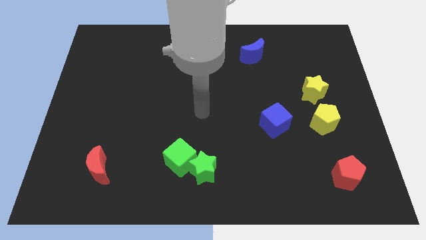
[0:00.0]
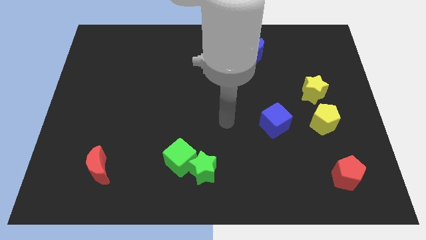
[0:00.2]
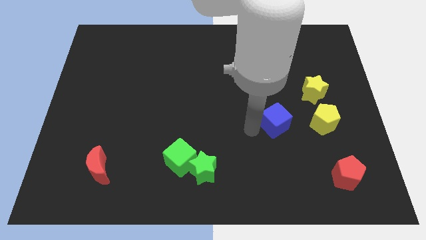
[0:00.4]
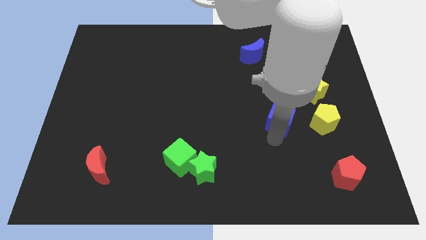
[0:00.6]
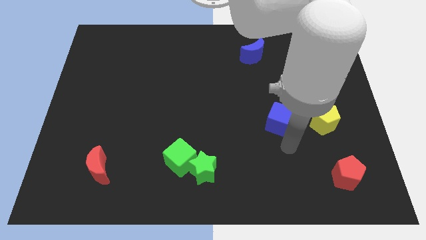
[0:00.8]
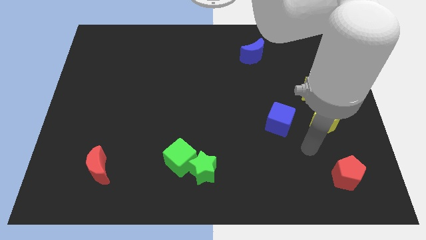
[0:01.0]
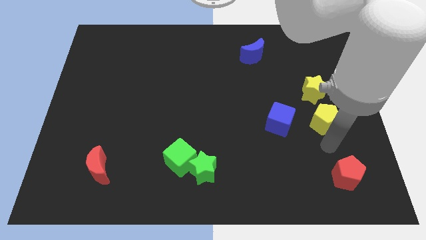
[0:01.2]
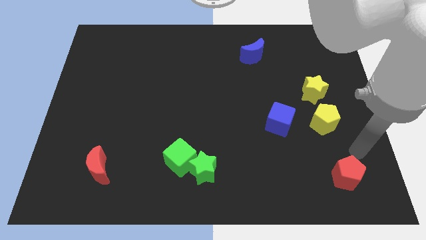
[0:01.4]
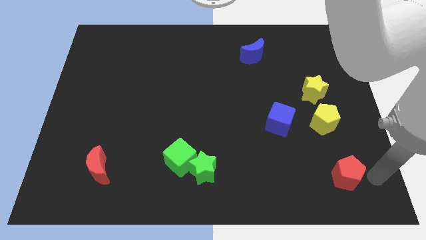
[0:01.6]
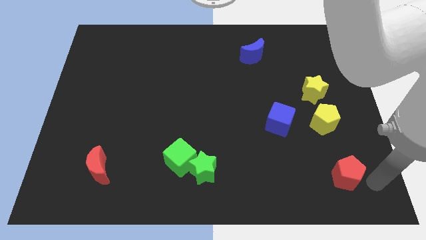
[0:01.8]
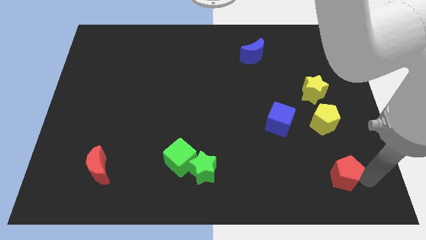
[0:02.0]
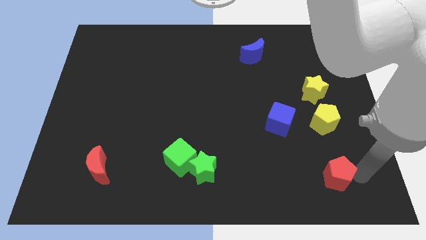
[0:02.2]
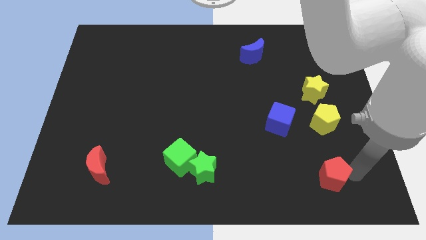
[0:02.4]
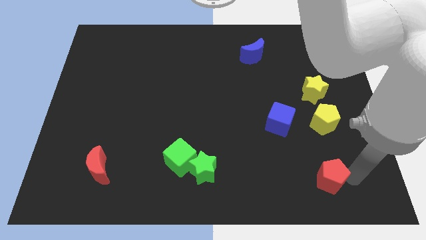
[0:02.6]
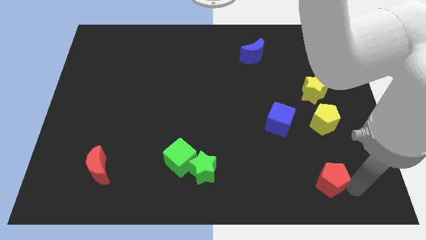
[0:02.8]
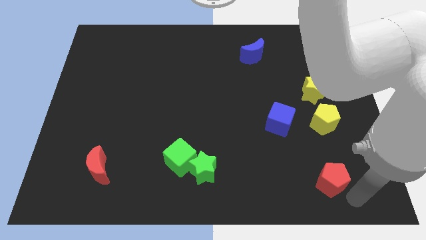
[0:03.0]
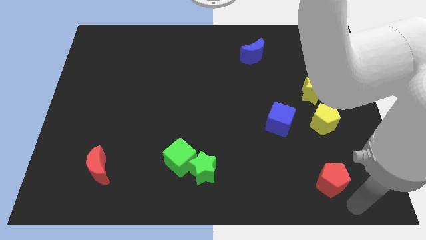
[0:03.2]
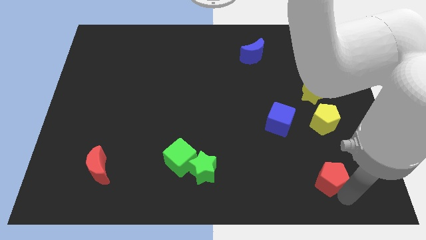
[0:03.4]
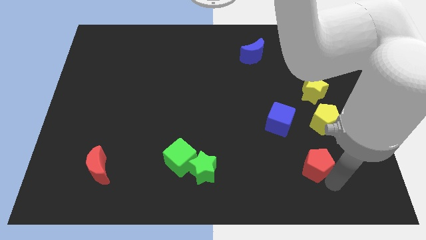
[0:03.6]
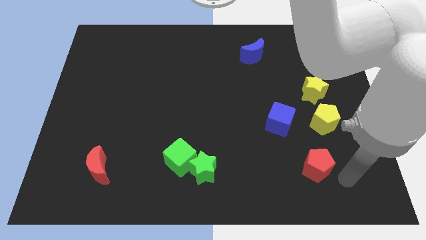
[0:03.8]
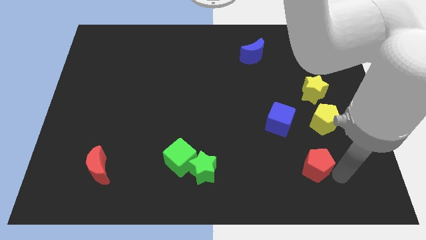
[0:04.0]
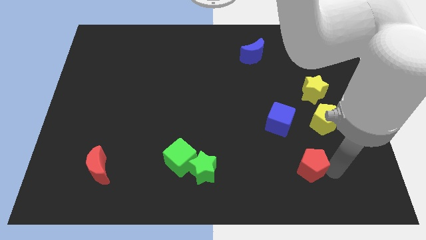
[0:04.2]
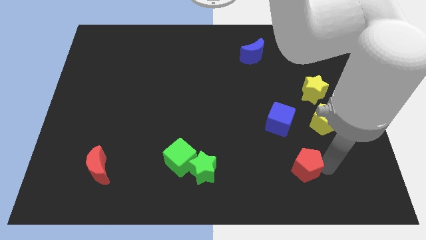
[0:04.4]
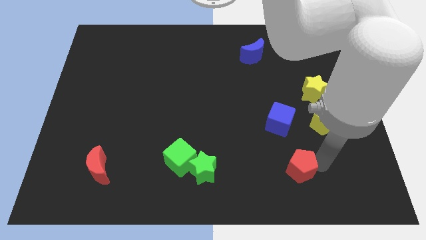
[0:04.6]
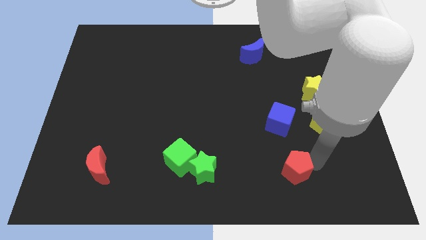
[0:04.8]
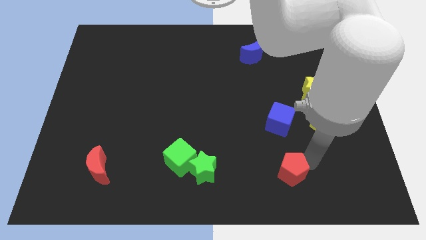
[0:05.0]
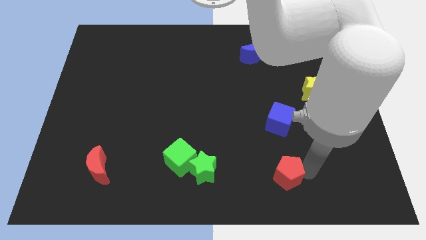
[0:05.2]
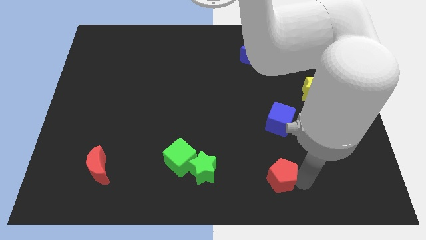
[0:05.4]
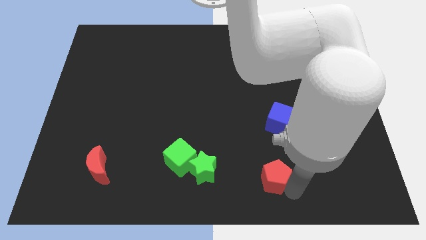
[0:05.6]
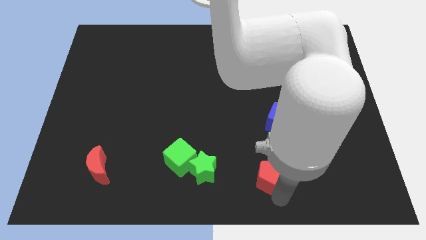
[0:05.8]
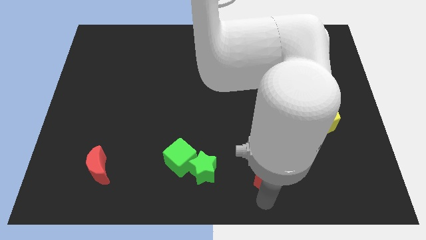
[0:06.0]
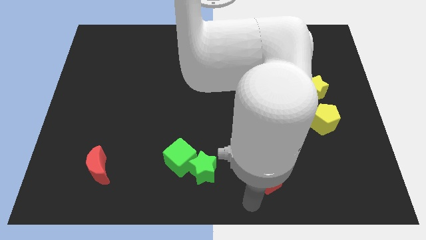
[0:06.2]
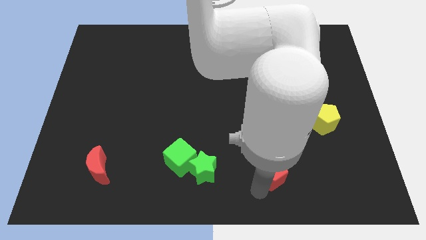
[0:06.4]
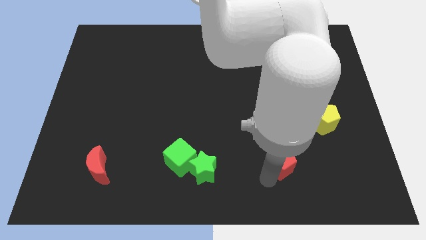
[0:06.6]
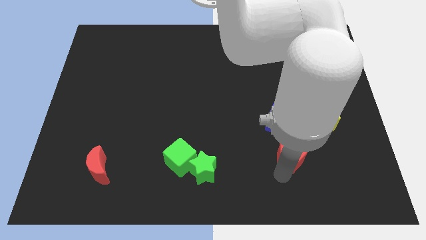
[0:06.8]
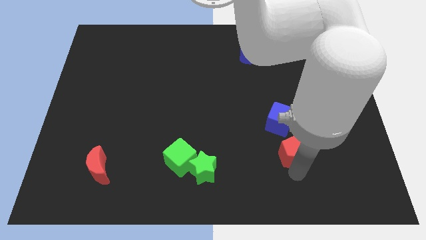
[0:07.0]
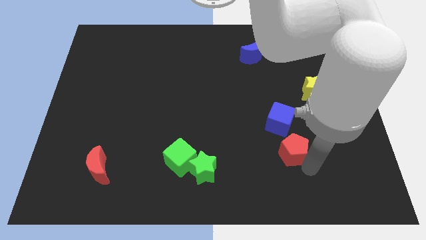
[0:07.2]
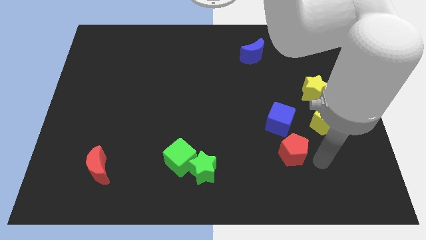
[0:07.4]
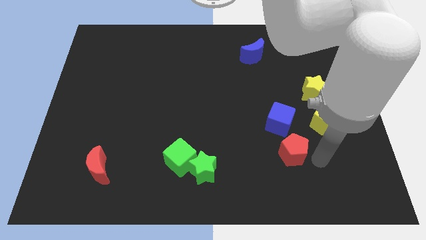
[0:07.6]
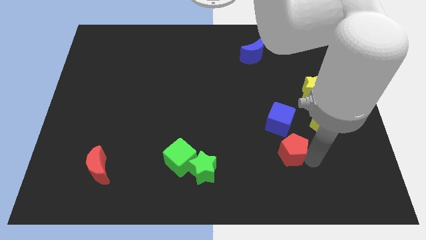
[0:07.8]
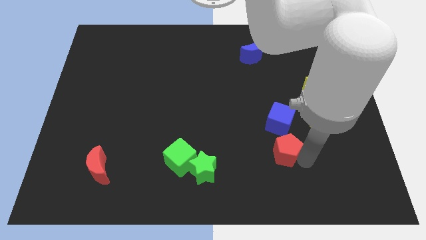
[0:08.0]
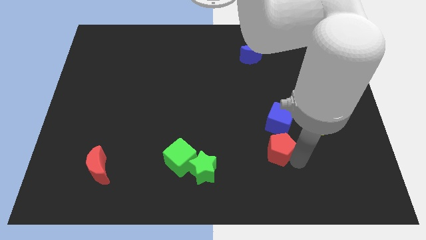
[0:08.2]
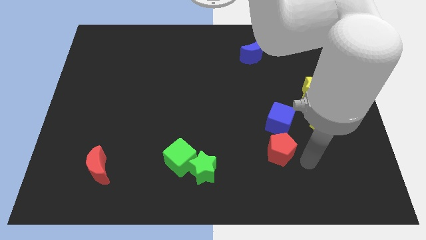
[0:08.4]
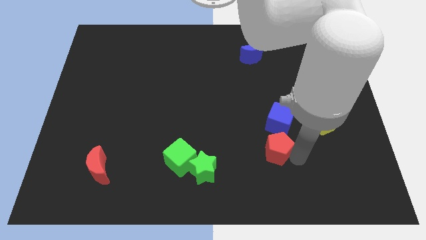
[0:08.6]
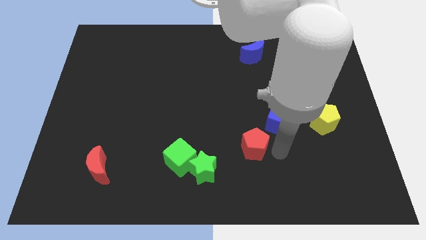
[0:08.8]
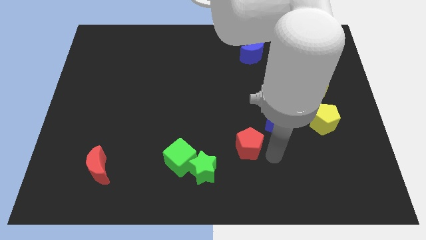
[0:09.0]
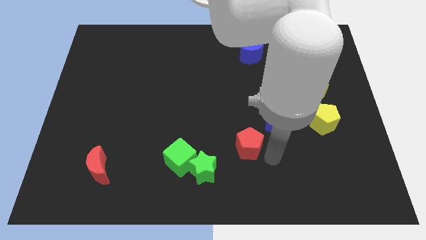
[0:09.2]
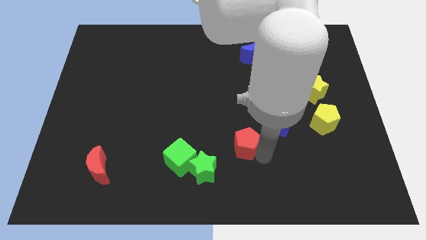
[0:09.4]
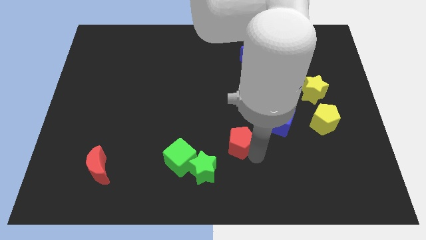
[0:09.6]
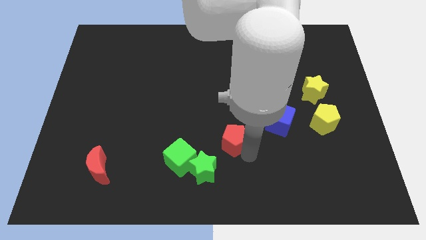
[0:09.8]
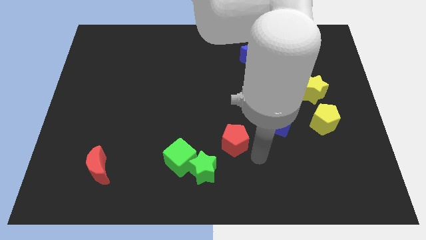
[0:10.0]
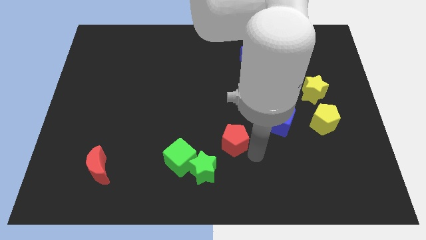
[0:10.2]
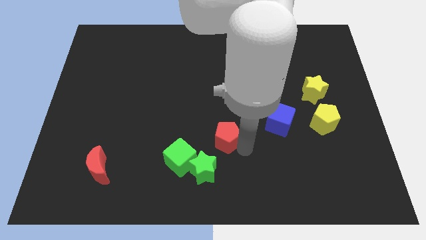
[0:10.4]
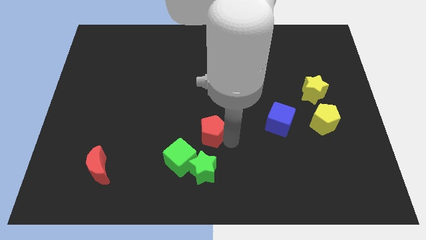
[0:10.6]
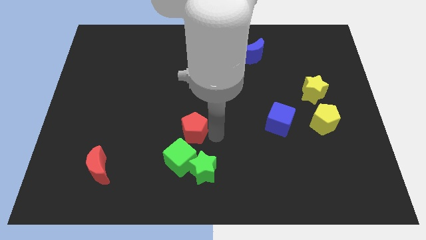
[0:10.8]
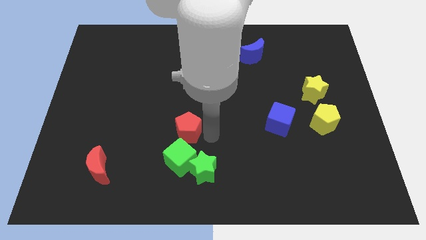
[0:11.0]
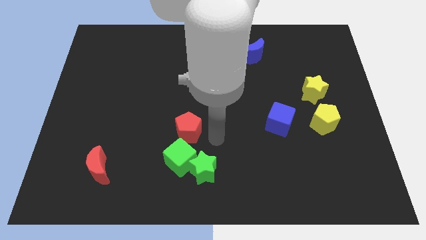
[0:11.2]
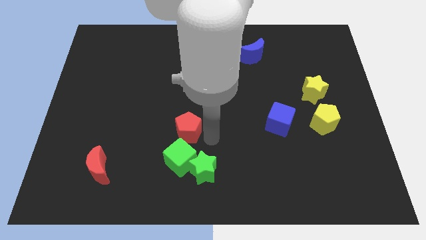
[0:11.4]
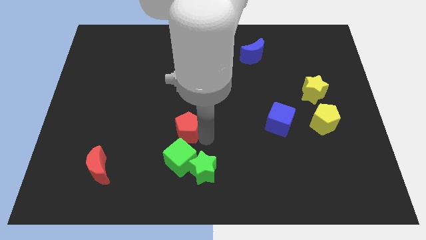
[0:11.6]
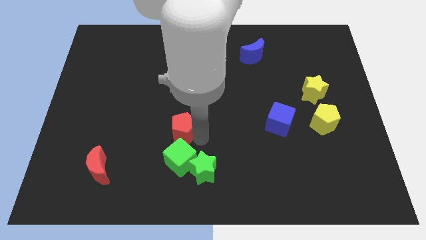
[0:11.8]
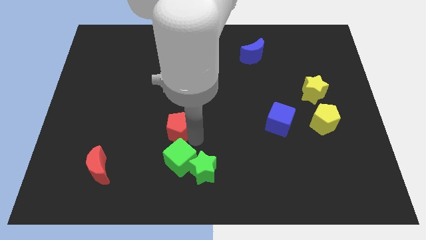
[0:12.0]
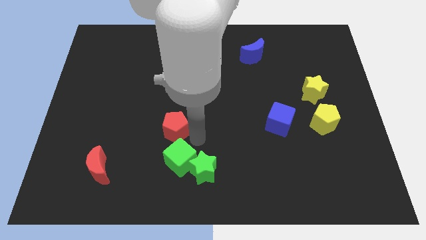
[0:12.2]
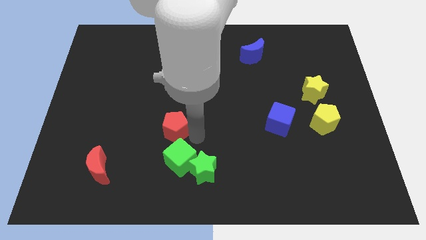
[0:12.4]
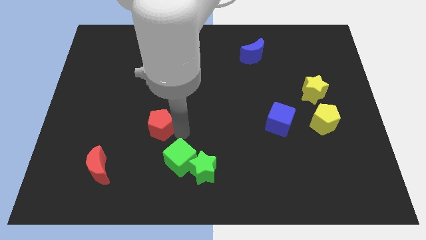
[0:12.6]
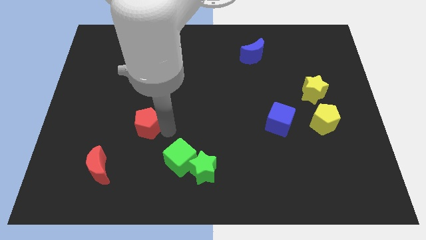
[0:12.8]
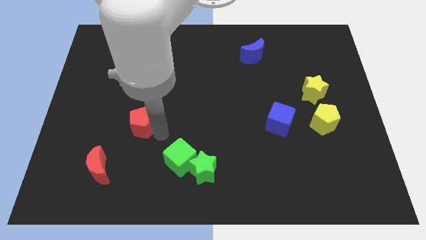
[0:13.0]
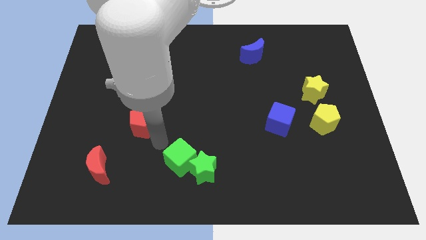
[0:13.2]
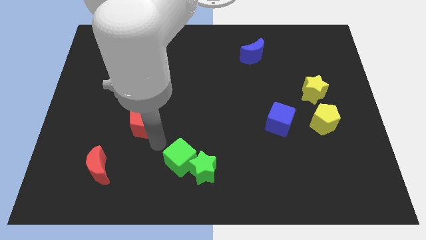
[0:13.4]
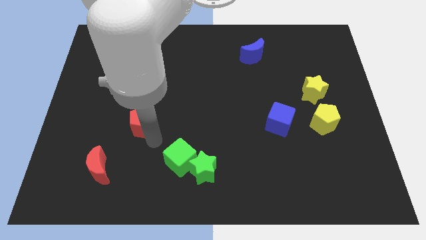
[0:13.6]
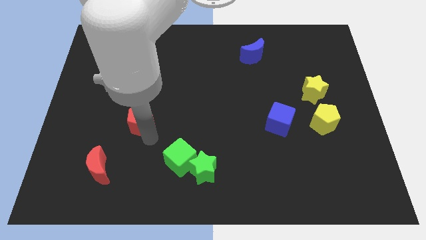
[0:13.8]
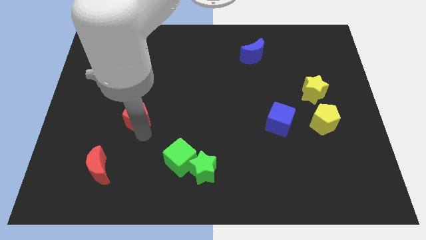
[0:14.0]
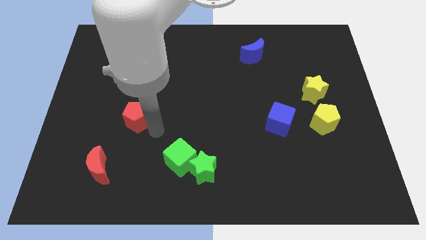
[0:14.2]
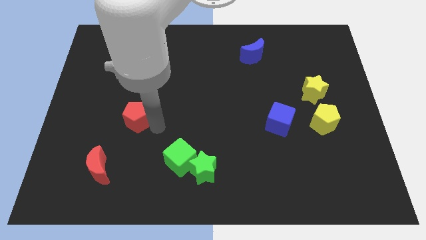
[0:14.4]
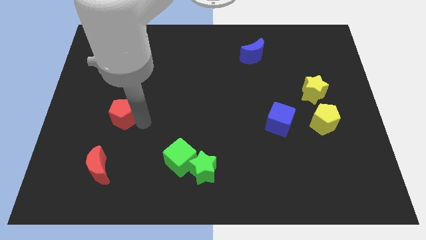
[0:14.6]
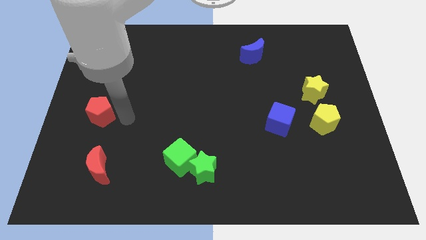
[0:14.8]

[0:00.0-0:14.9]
push the red pentagon to the left side

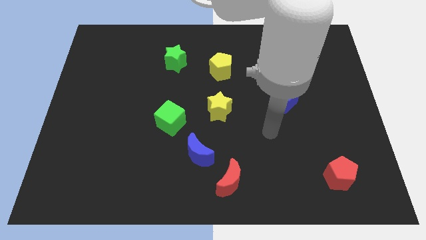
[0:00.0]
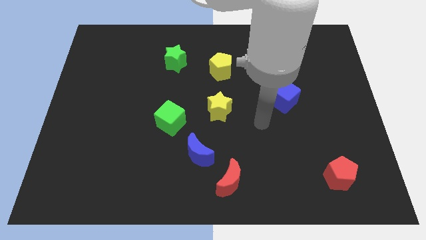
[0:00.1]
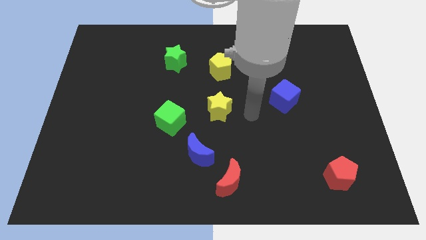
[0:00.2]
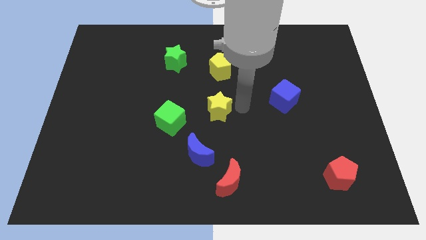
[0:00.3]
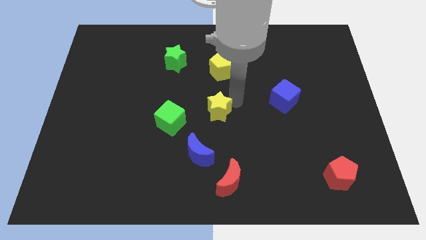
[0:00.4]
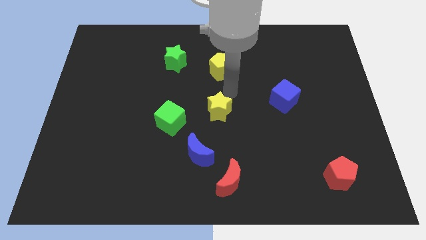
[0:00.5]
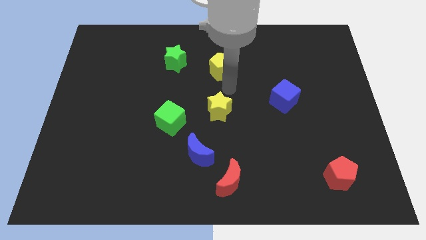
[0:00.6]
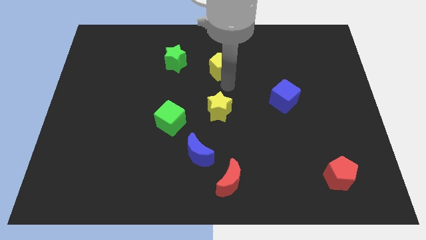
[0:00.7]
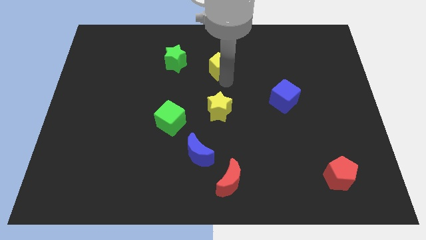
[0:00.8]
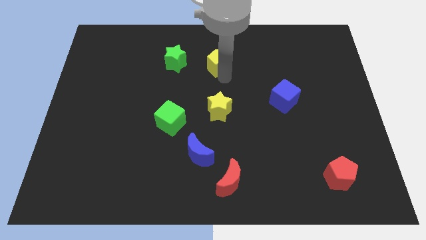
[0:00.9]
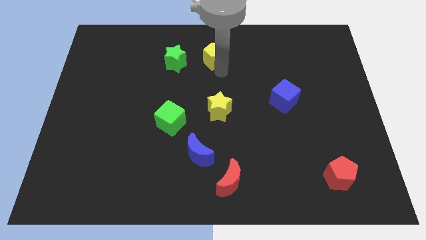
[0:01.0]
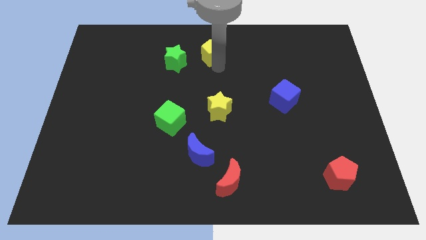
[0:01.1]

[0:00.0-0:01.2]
slide the yellow pentagon to the top
